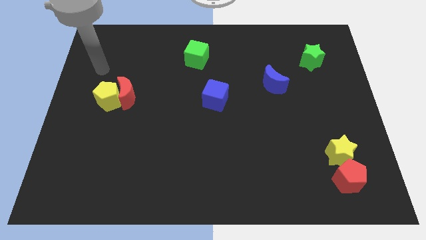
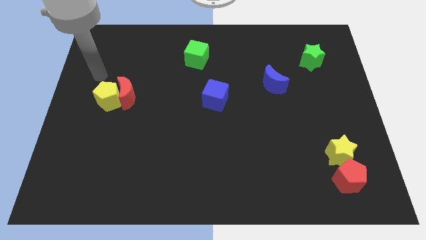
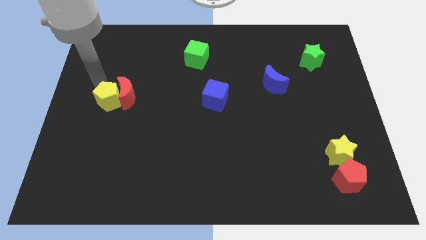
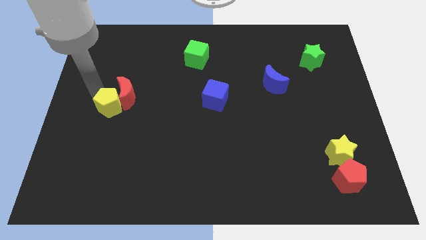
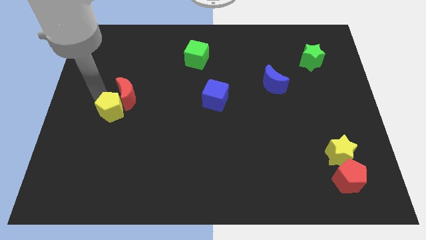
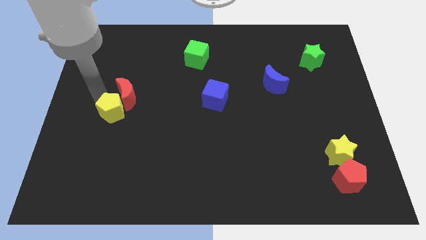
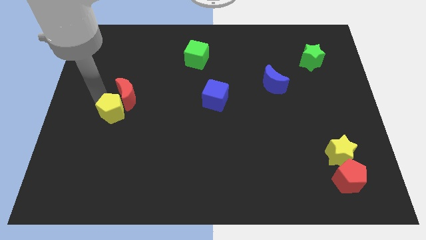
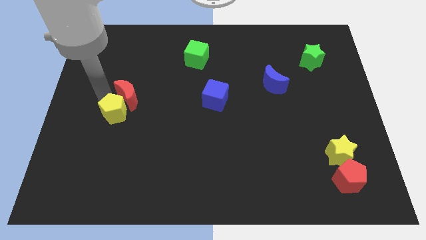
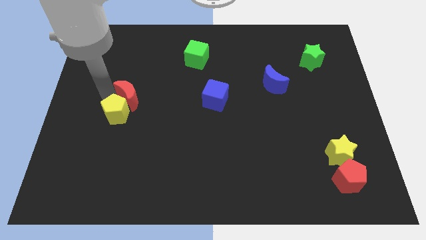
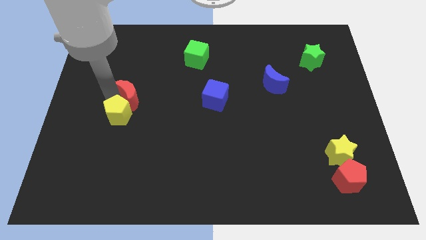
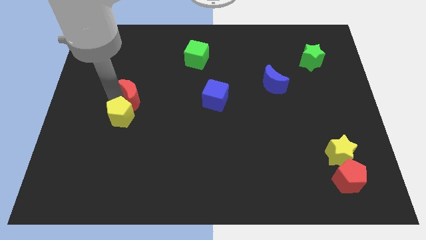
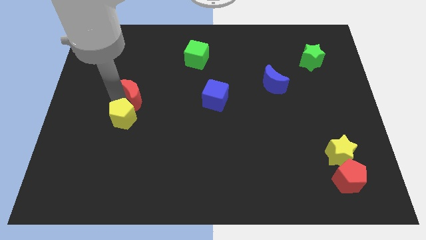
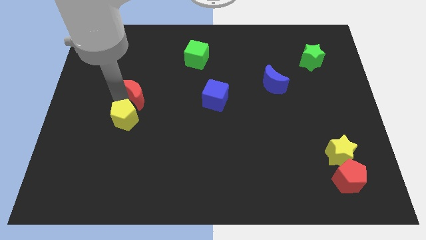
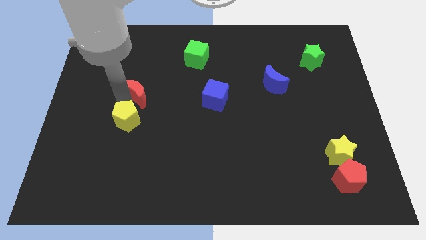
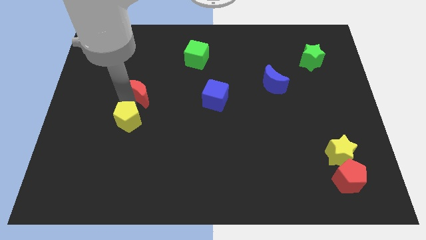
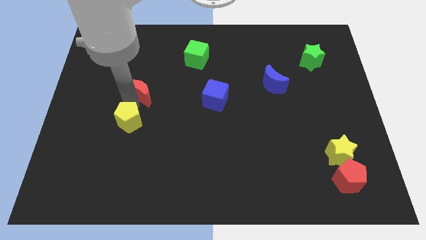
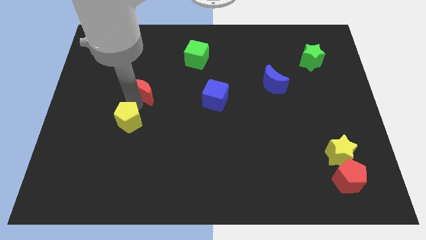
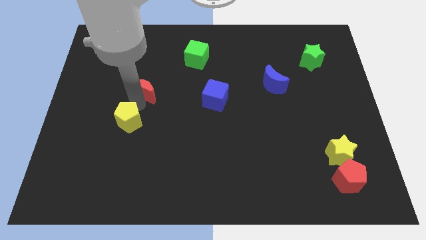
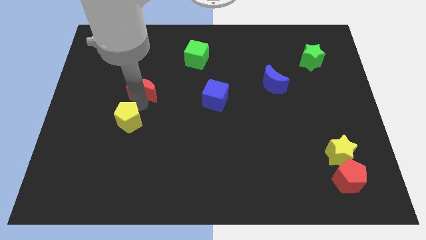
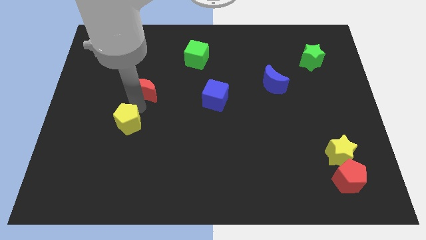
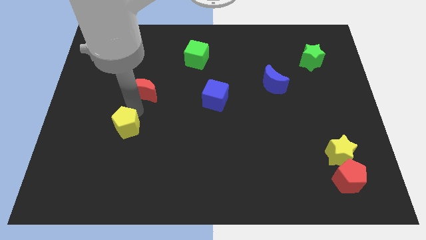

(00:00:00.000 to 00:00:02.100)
pull the red moon apart from the yellow pentagon

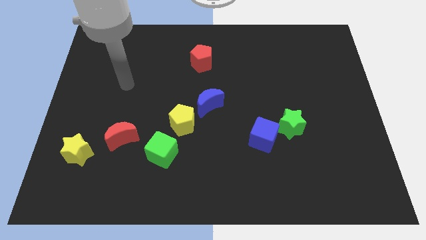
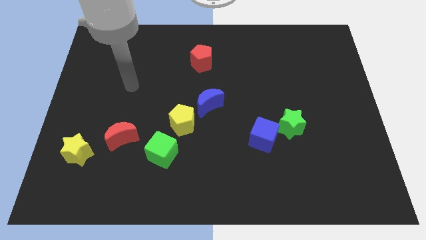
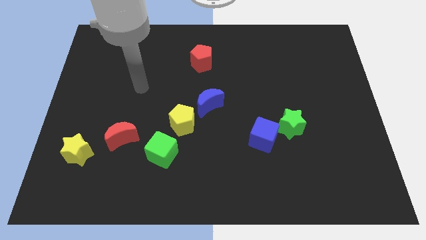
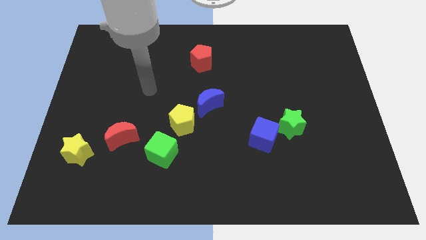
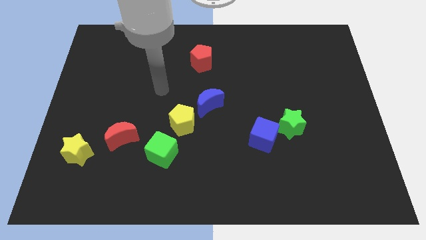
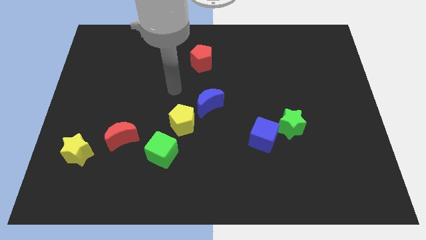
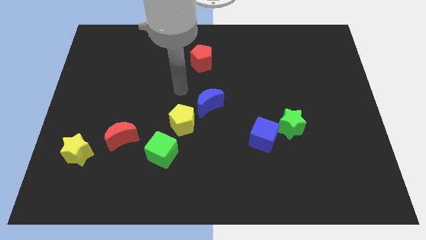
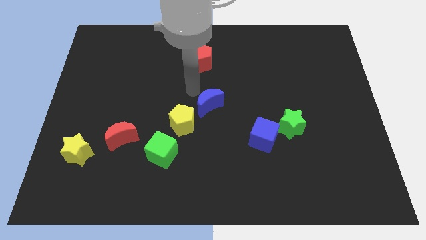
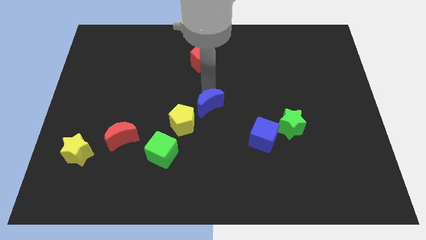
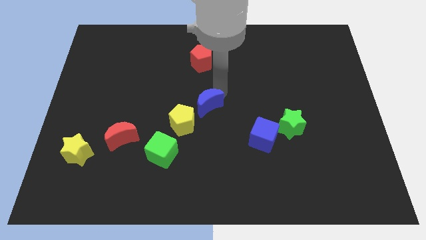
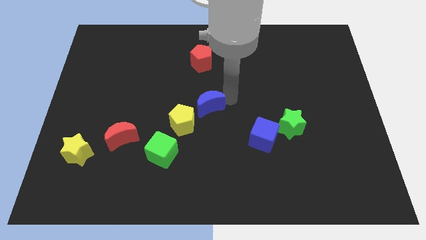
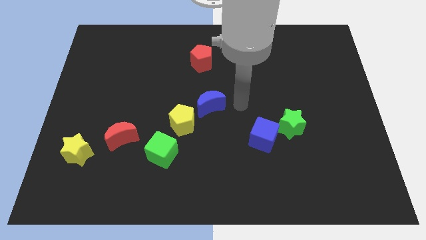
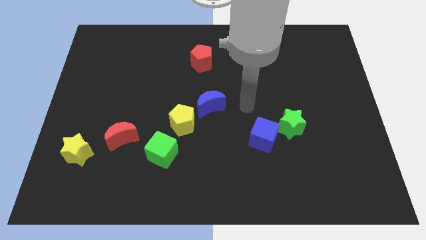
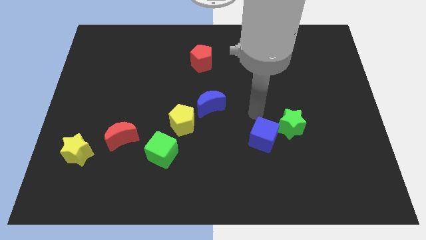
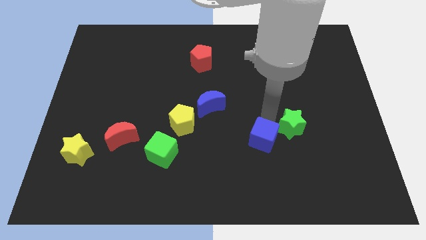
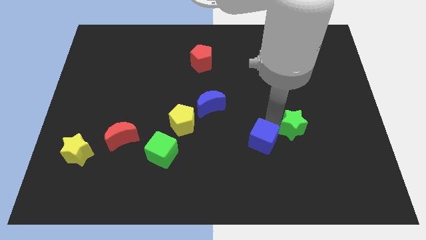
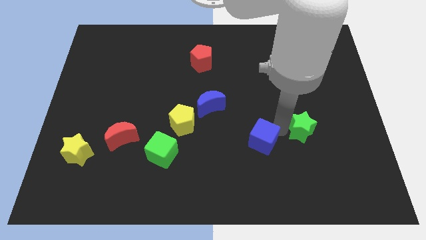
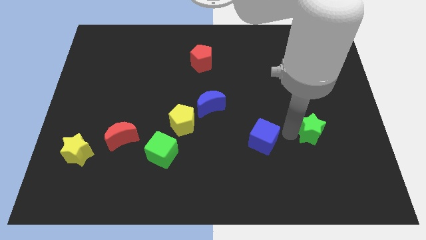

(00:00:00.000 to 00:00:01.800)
move the blue cube away from the green star

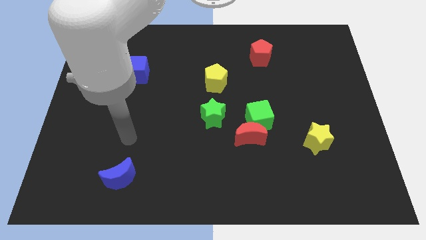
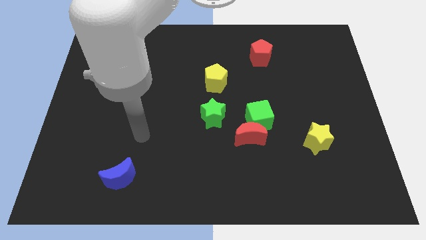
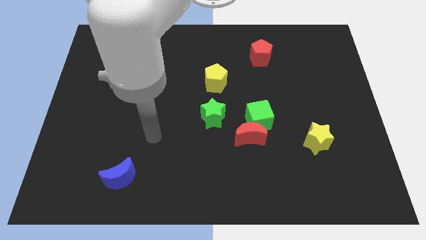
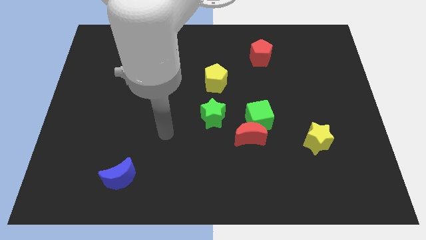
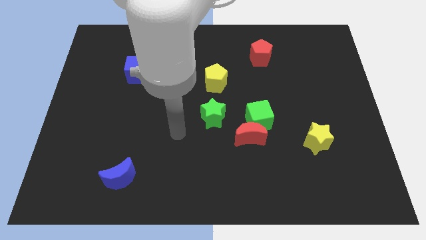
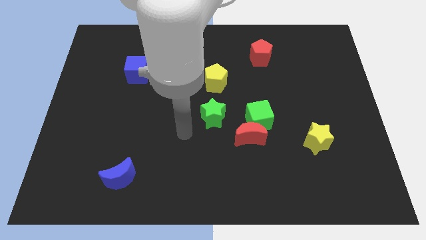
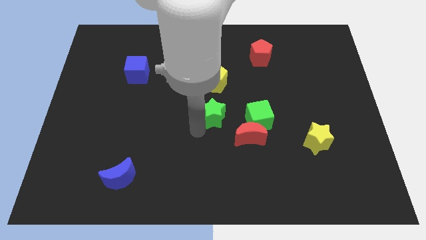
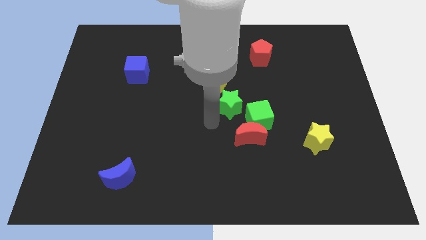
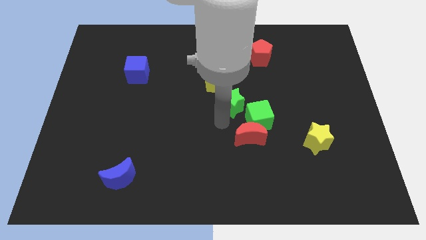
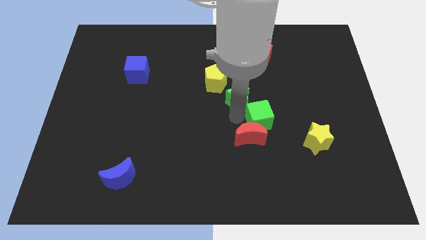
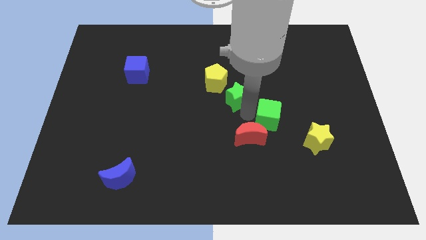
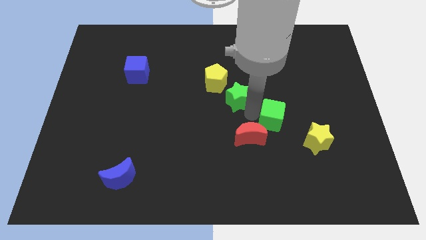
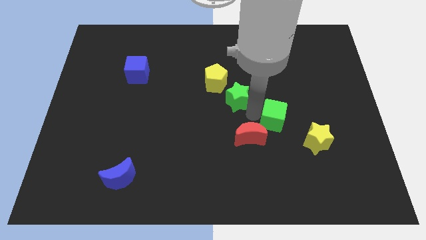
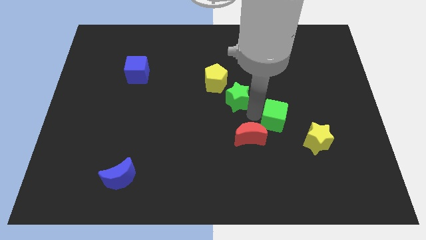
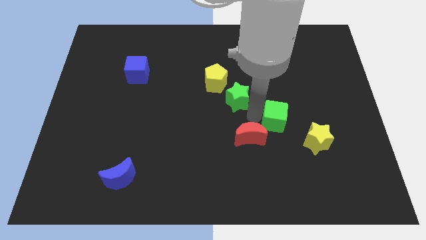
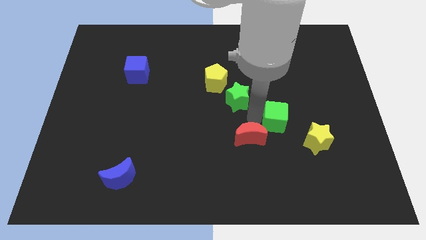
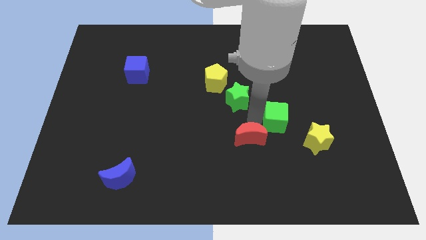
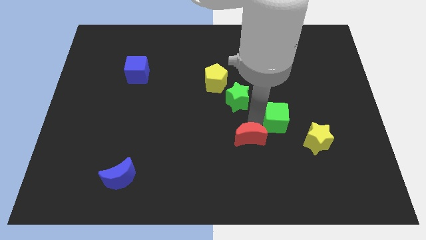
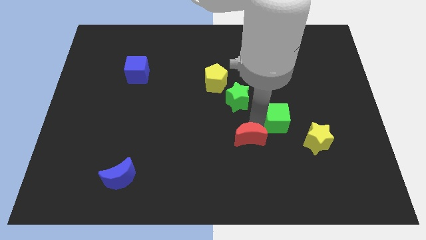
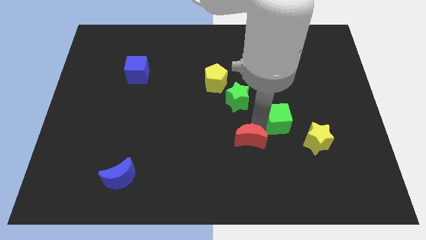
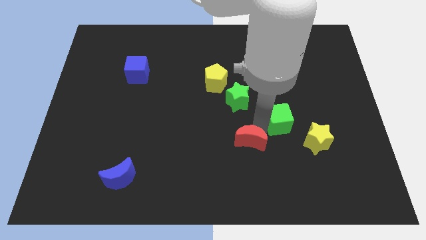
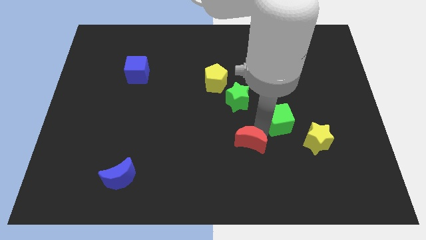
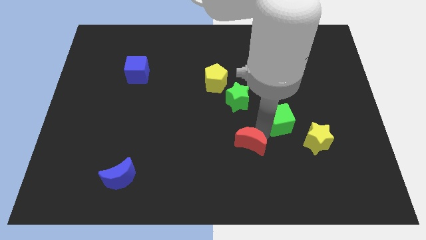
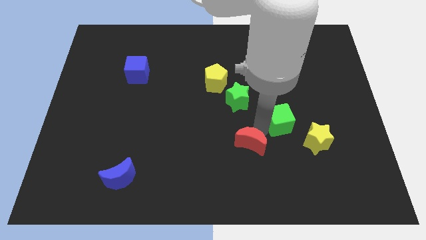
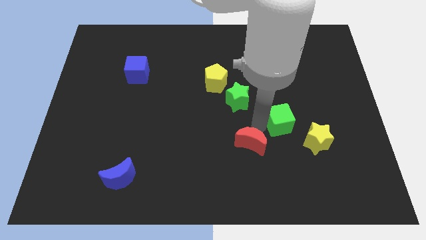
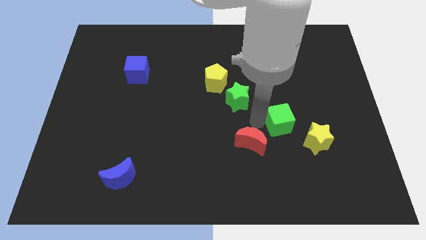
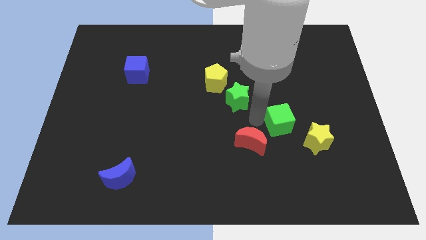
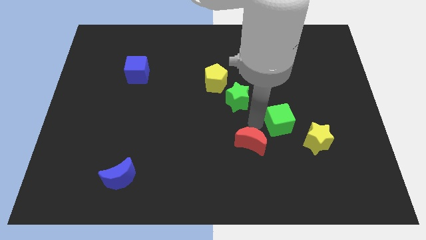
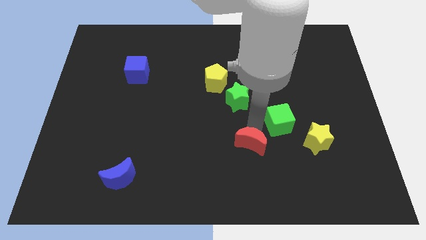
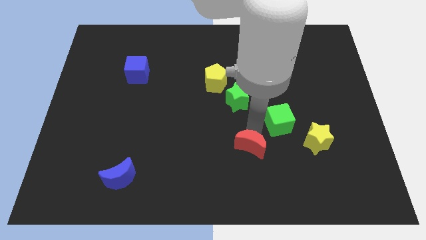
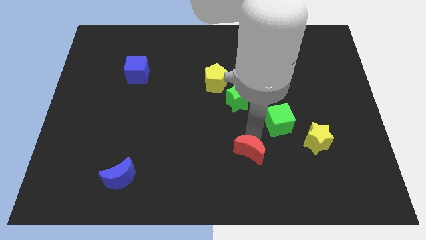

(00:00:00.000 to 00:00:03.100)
pull the red moon apart from the green cube and green star

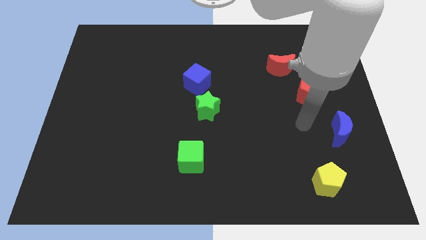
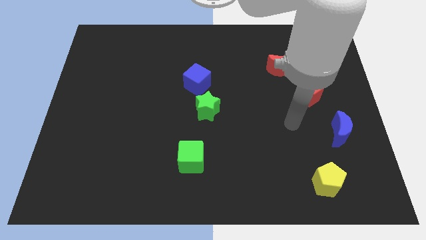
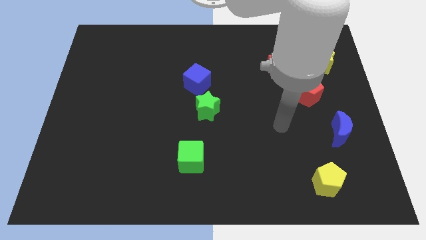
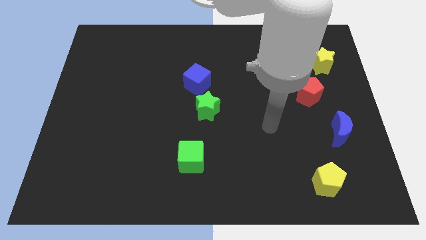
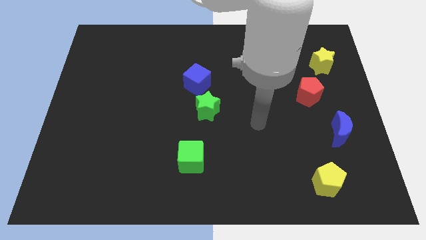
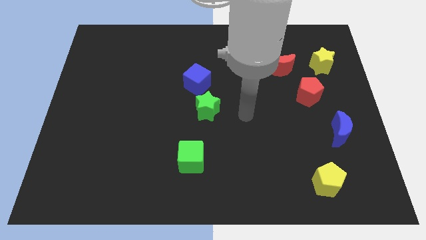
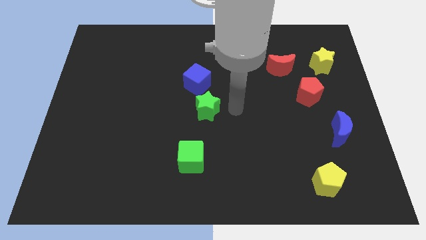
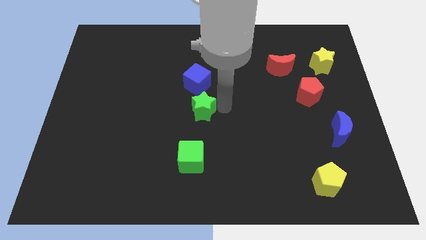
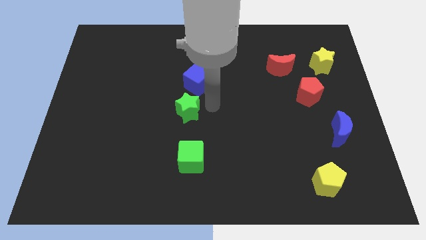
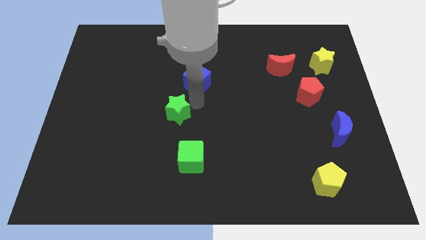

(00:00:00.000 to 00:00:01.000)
pull the blue cube apart from the green star

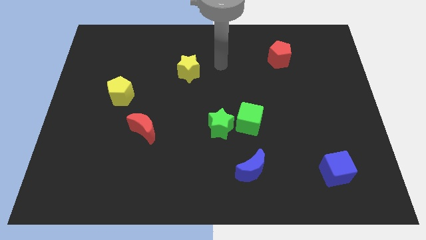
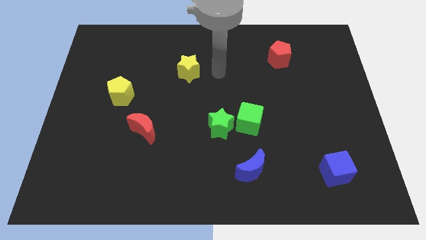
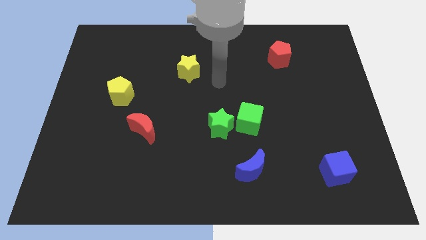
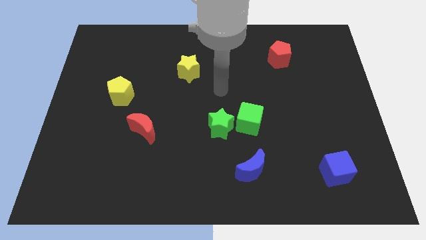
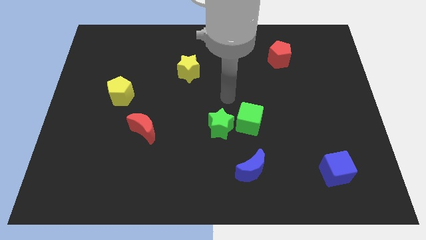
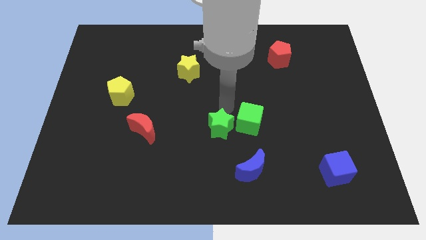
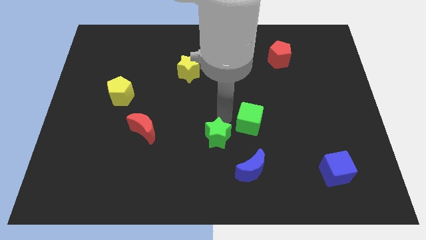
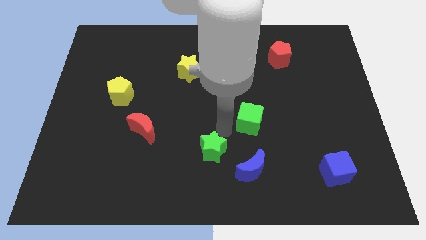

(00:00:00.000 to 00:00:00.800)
pull the green cube apart from the green star

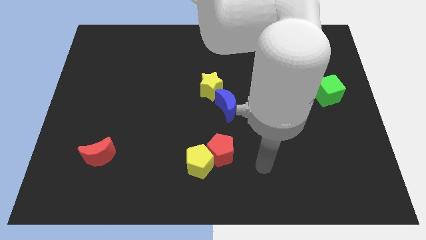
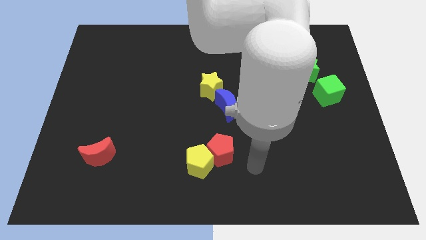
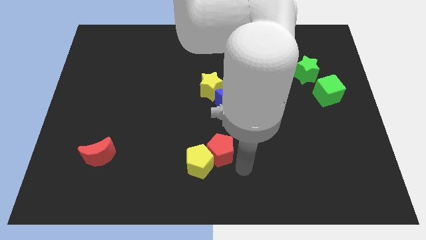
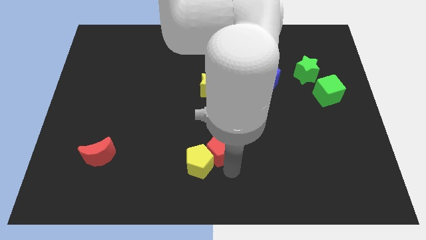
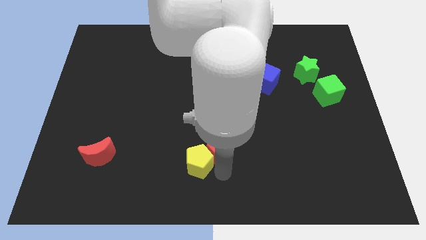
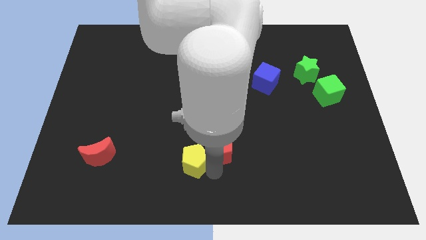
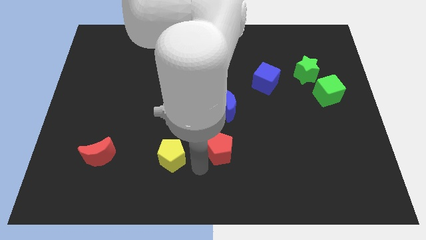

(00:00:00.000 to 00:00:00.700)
move the red pentagon away from the yellow pentagon
